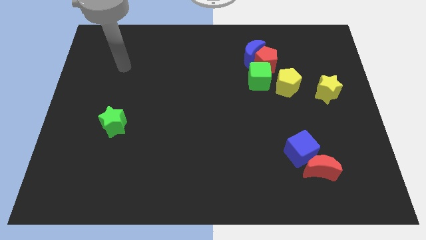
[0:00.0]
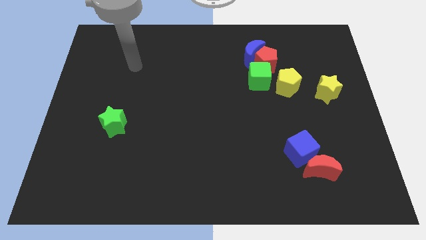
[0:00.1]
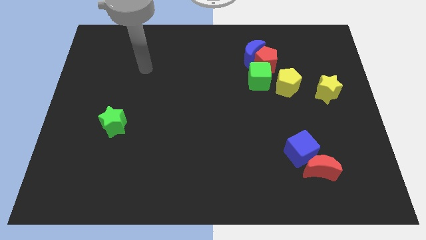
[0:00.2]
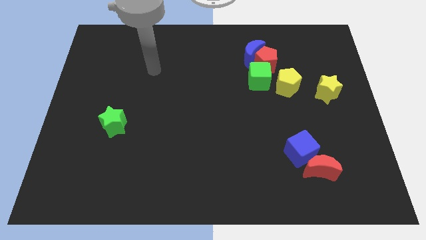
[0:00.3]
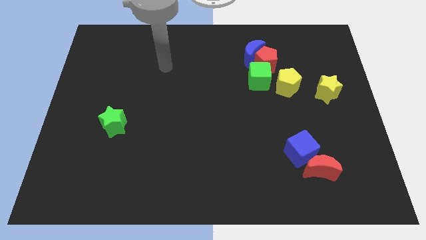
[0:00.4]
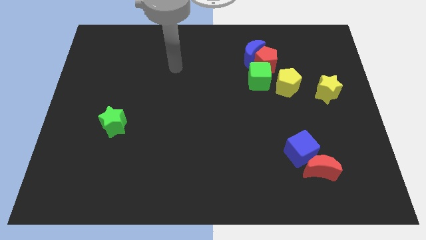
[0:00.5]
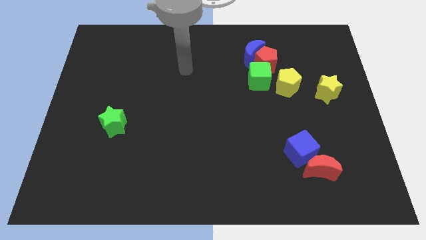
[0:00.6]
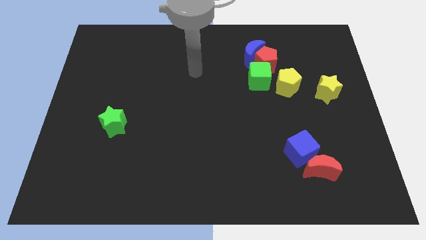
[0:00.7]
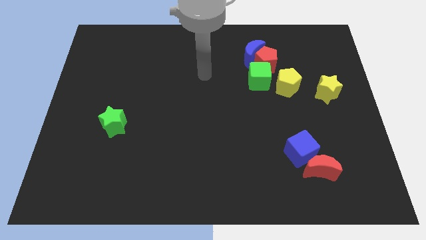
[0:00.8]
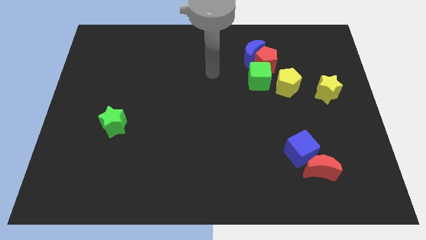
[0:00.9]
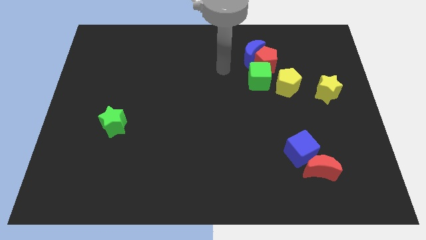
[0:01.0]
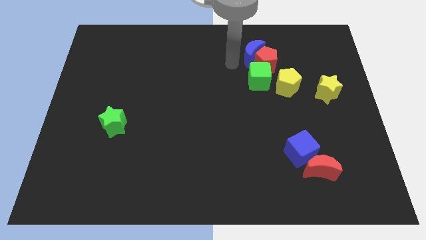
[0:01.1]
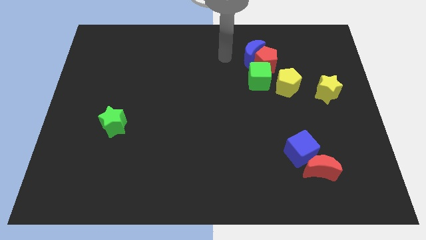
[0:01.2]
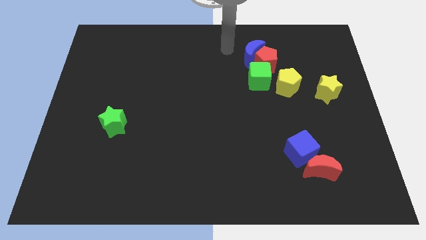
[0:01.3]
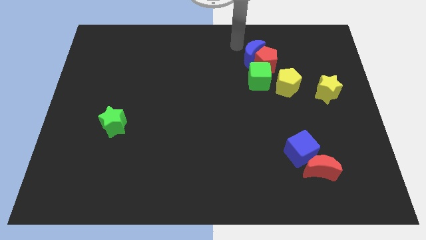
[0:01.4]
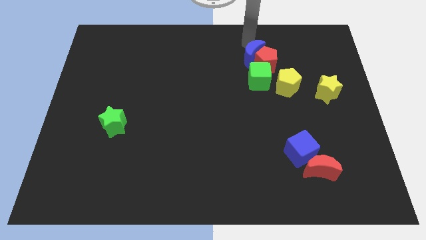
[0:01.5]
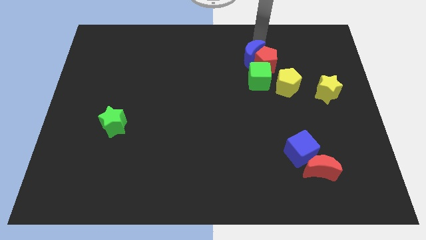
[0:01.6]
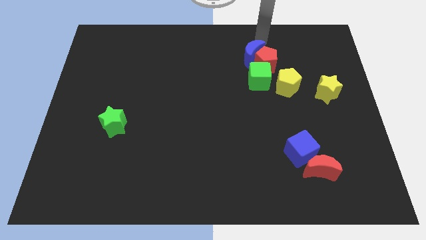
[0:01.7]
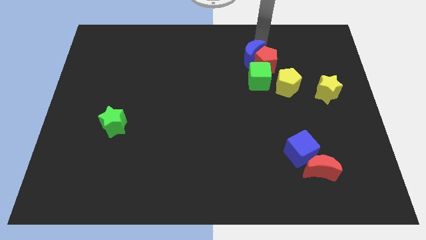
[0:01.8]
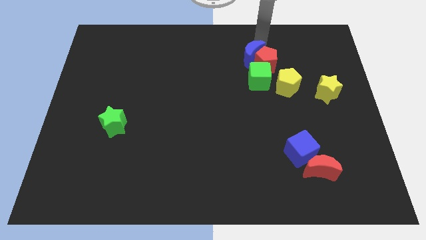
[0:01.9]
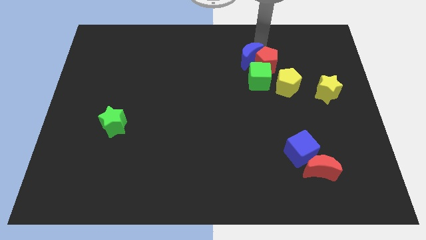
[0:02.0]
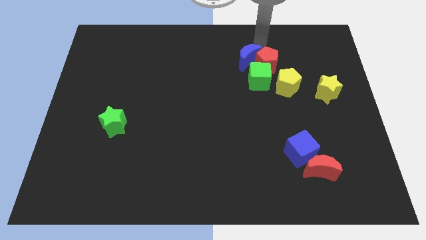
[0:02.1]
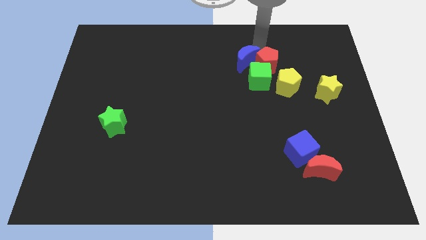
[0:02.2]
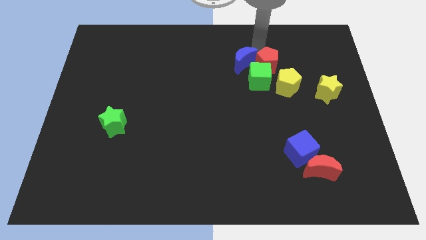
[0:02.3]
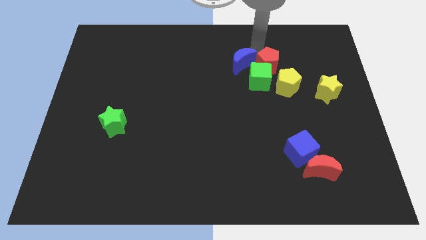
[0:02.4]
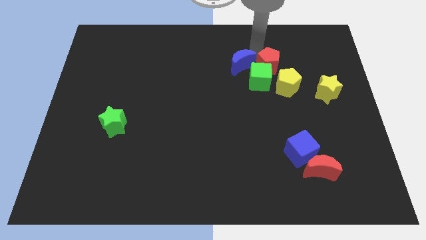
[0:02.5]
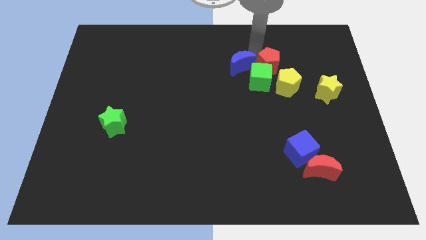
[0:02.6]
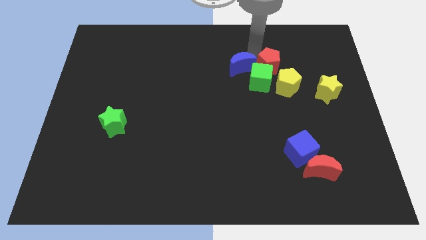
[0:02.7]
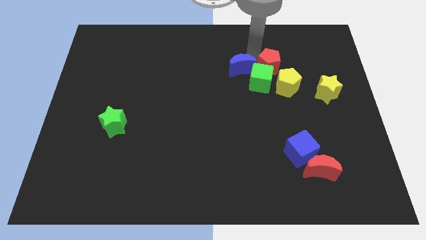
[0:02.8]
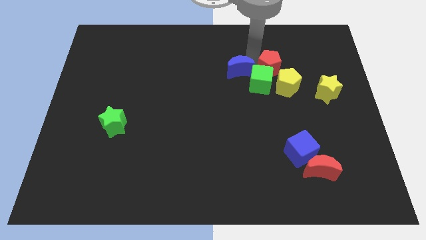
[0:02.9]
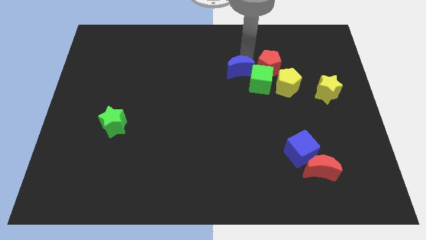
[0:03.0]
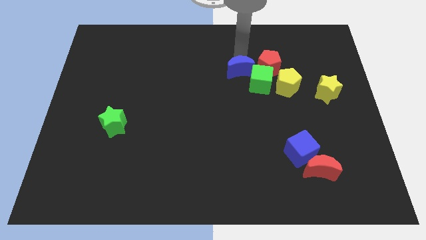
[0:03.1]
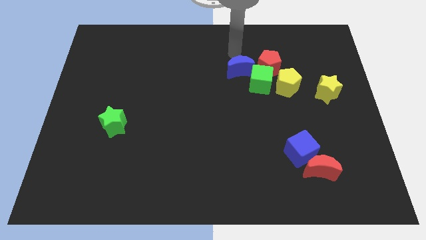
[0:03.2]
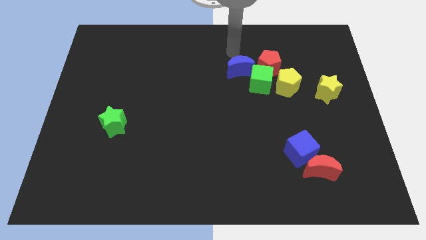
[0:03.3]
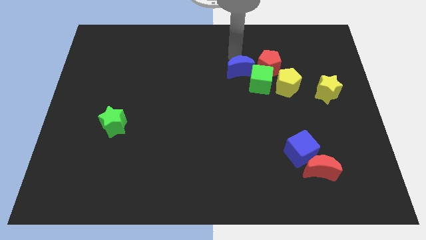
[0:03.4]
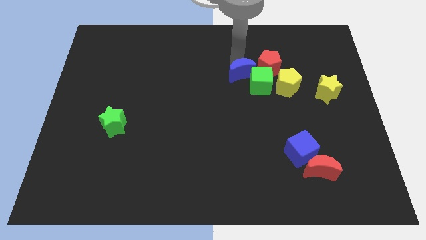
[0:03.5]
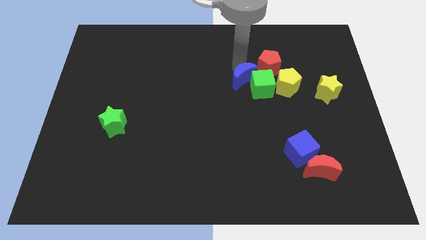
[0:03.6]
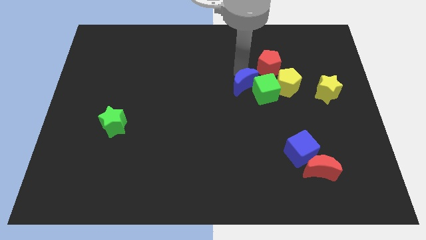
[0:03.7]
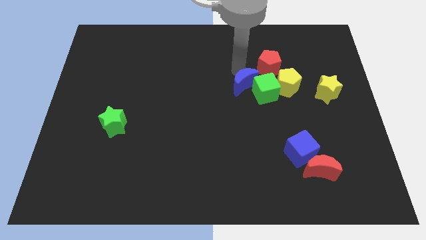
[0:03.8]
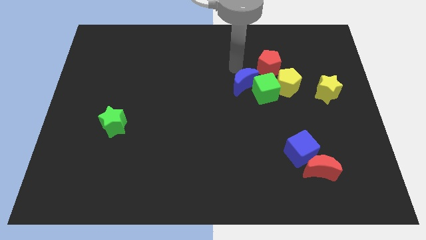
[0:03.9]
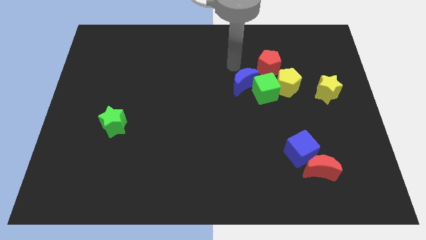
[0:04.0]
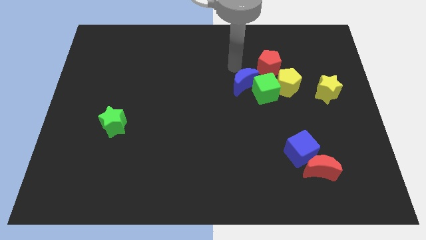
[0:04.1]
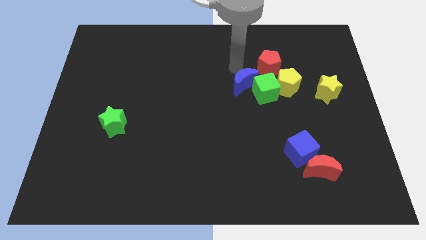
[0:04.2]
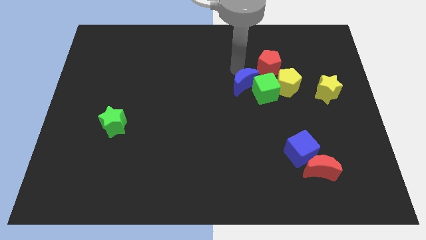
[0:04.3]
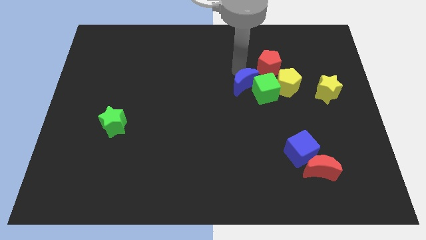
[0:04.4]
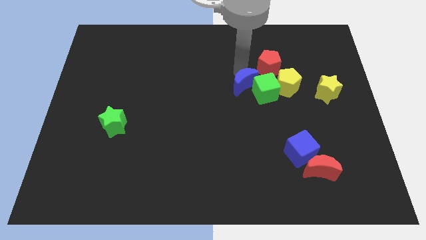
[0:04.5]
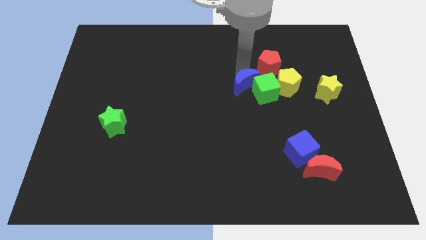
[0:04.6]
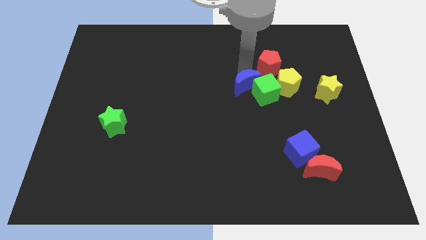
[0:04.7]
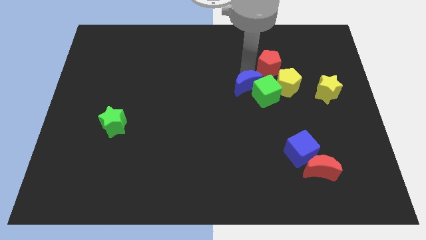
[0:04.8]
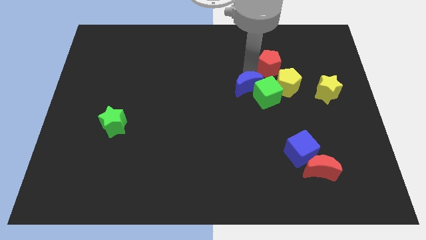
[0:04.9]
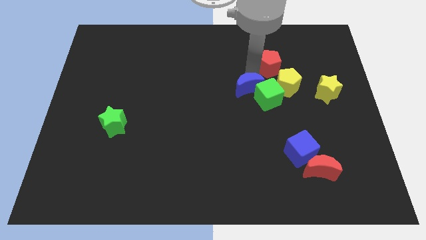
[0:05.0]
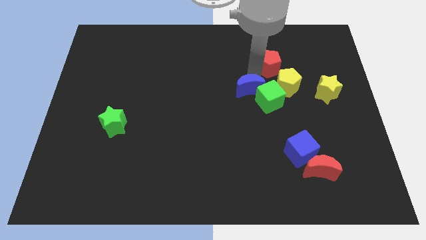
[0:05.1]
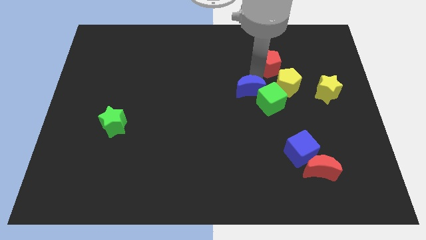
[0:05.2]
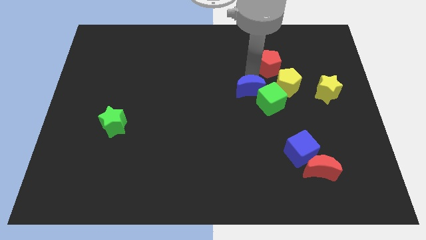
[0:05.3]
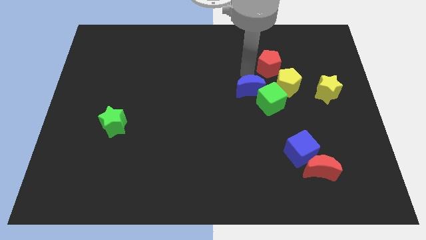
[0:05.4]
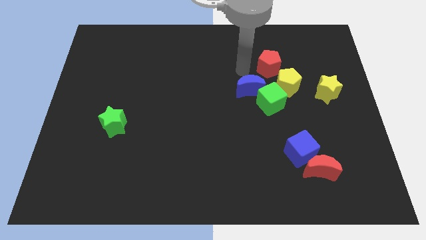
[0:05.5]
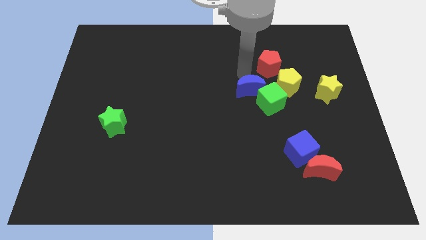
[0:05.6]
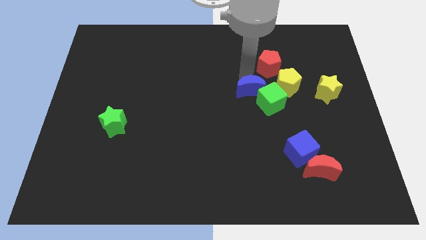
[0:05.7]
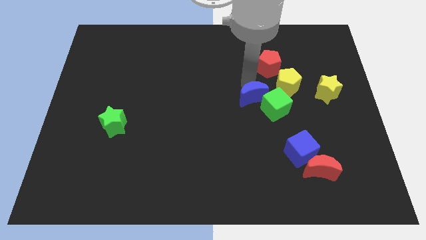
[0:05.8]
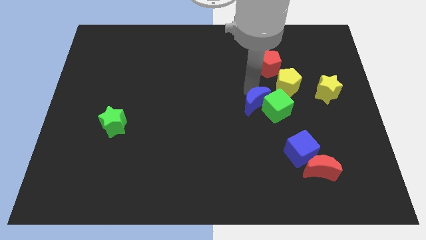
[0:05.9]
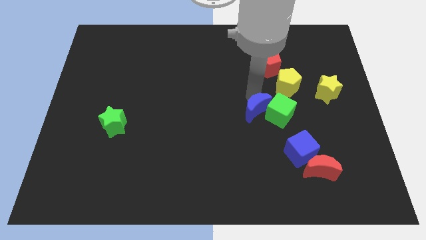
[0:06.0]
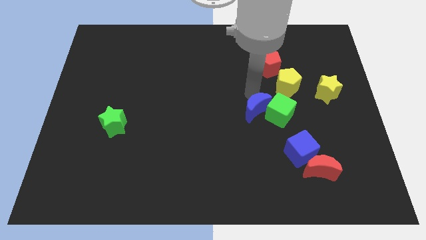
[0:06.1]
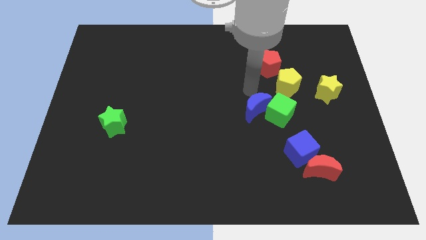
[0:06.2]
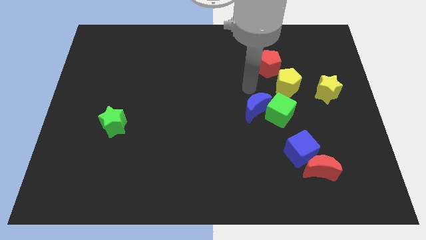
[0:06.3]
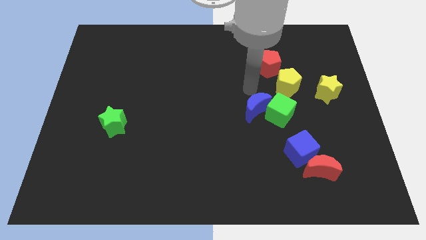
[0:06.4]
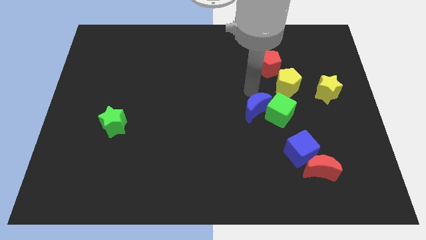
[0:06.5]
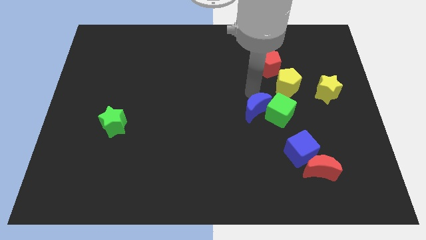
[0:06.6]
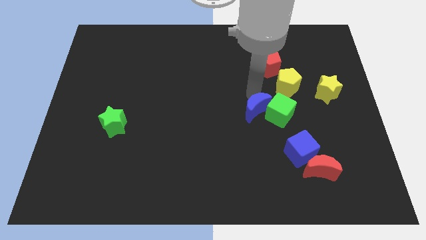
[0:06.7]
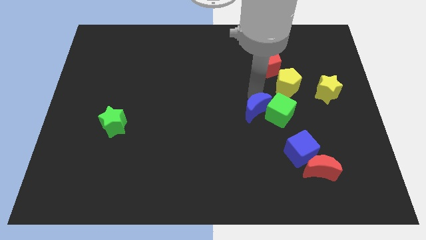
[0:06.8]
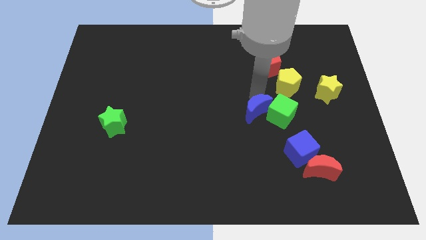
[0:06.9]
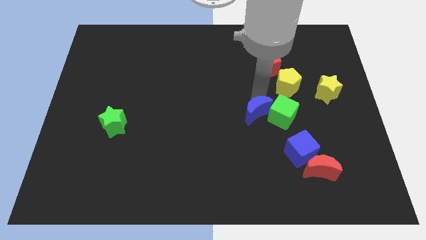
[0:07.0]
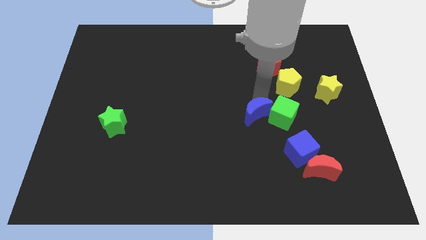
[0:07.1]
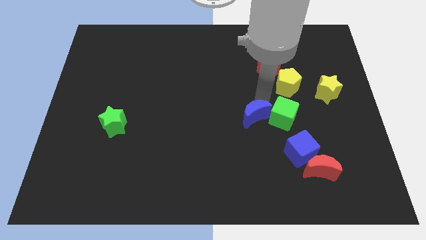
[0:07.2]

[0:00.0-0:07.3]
move the blue moon downwards

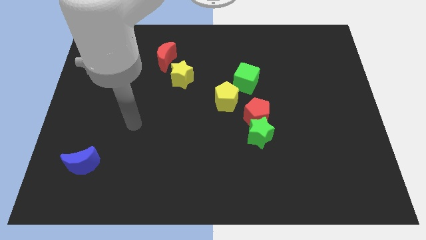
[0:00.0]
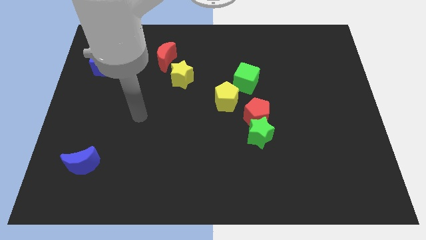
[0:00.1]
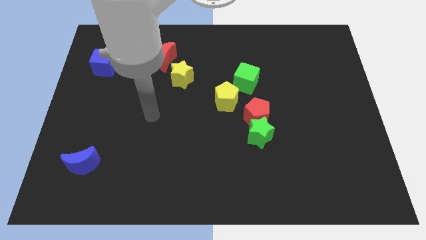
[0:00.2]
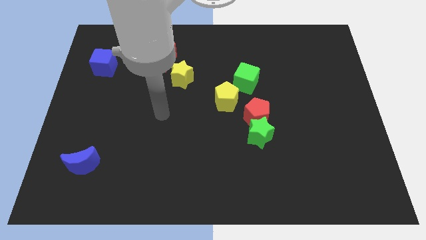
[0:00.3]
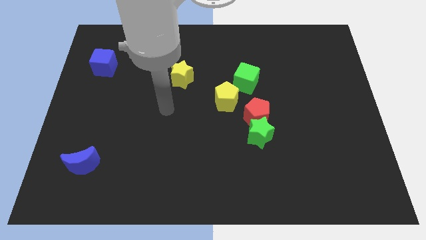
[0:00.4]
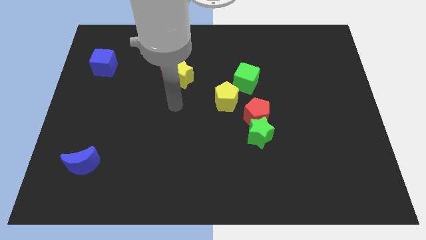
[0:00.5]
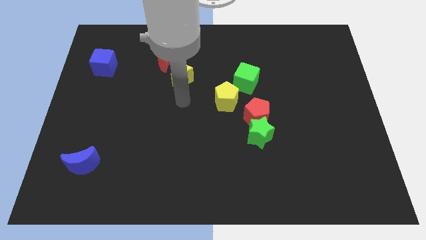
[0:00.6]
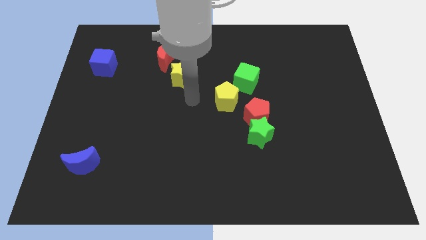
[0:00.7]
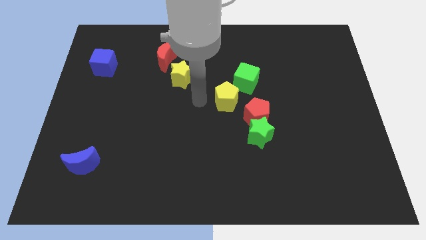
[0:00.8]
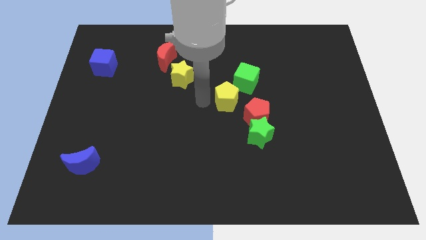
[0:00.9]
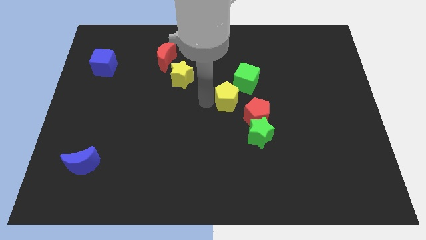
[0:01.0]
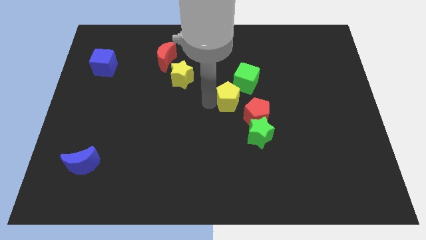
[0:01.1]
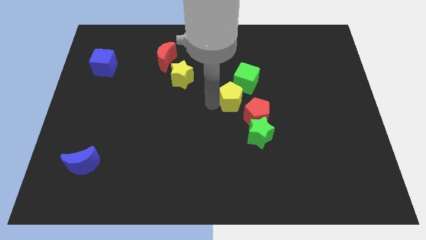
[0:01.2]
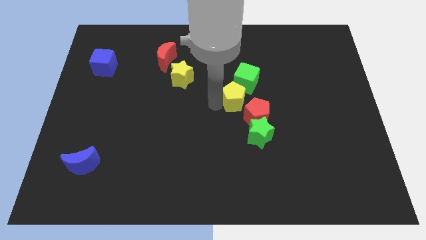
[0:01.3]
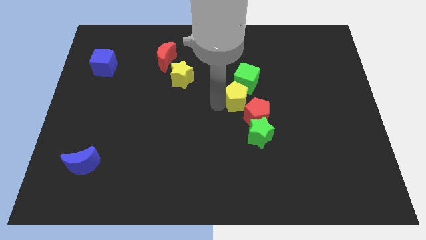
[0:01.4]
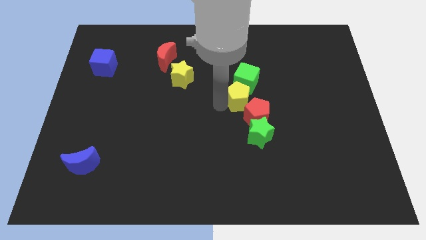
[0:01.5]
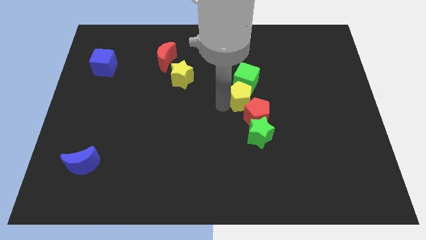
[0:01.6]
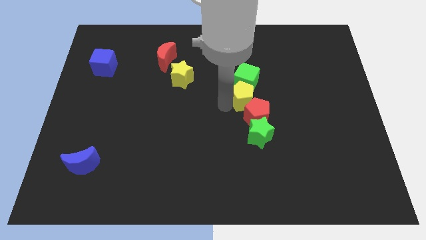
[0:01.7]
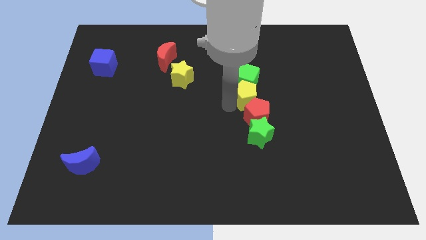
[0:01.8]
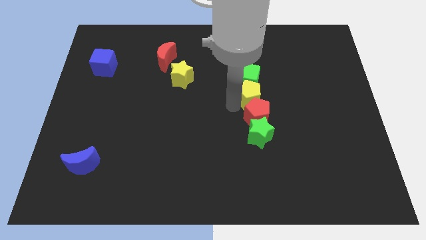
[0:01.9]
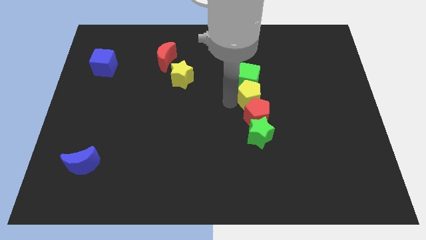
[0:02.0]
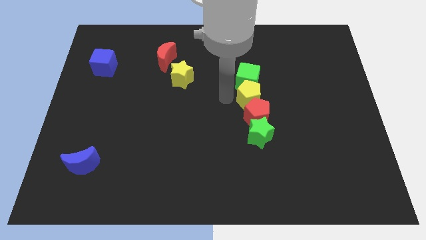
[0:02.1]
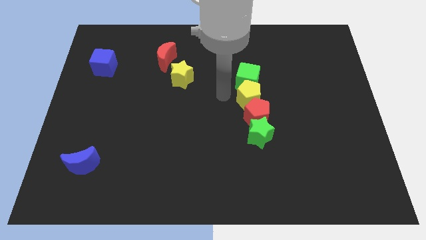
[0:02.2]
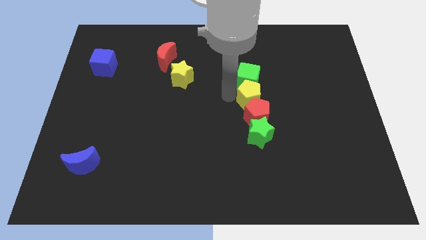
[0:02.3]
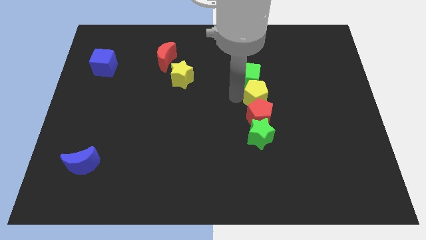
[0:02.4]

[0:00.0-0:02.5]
push the yellow pentagon a bit to the right
